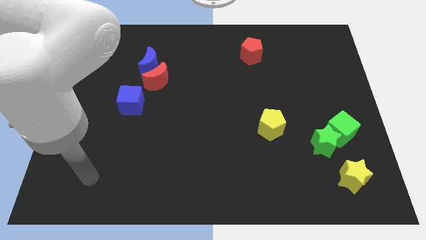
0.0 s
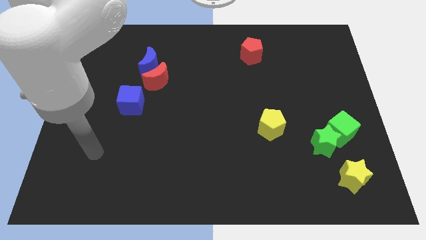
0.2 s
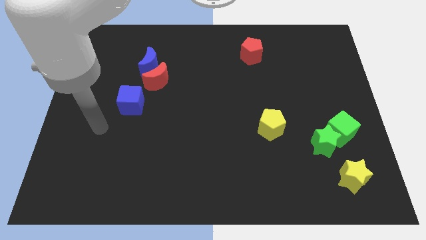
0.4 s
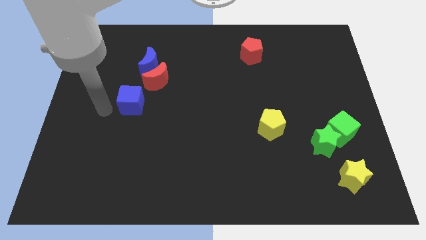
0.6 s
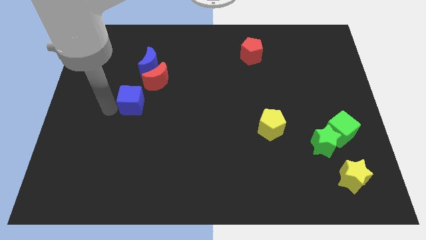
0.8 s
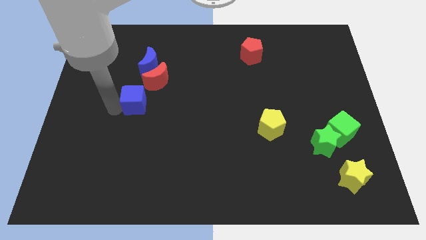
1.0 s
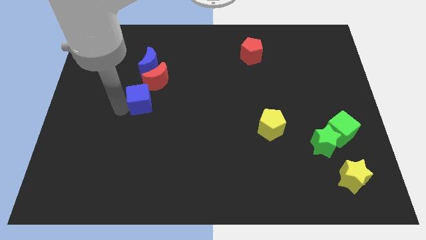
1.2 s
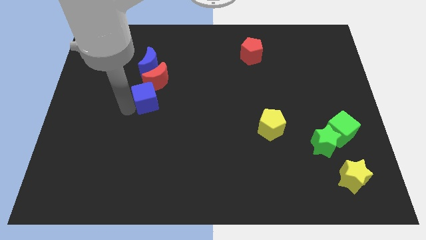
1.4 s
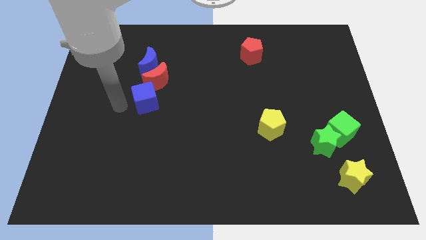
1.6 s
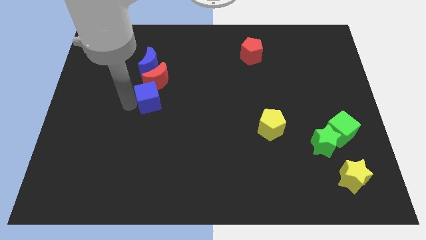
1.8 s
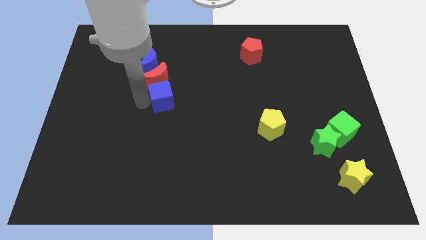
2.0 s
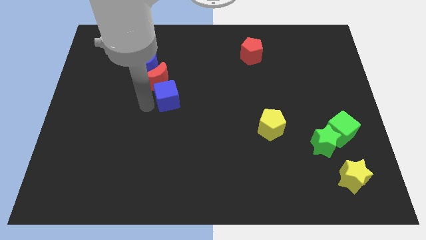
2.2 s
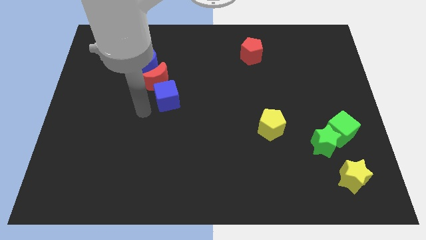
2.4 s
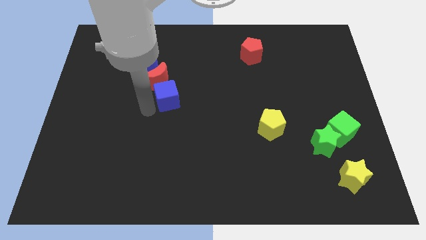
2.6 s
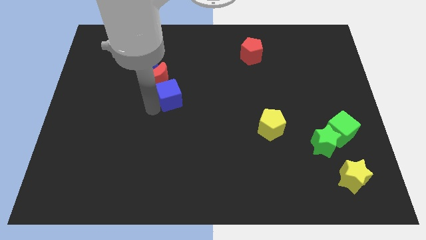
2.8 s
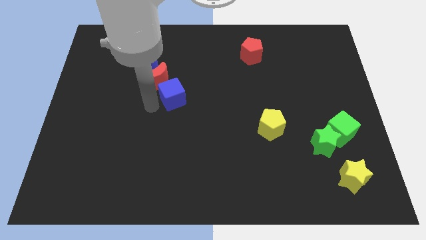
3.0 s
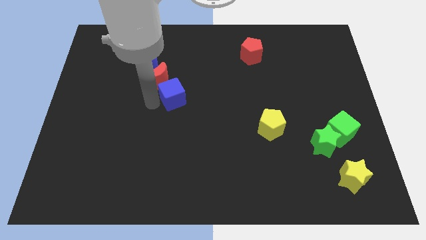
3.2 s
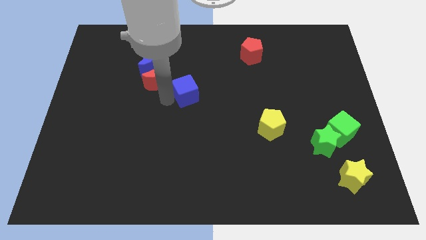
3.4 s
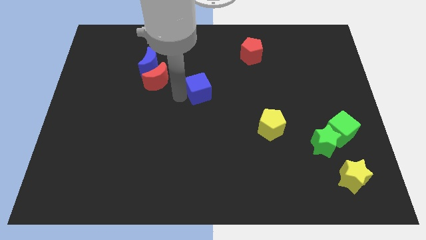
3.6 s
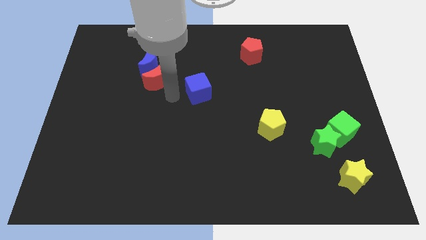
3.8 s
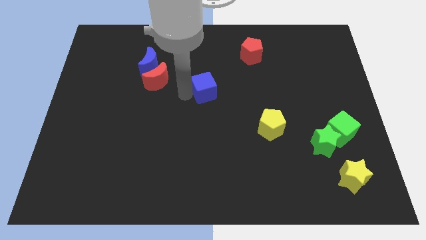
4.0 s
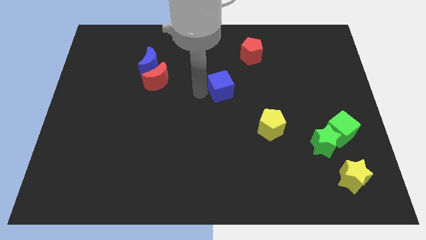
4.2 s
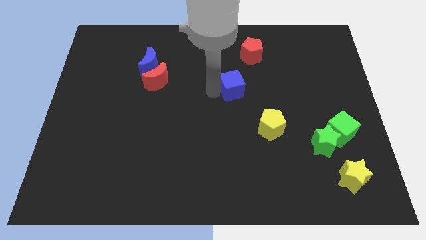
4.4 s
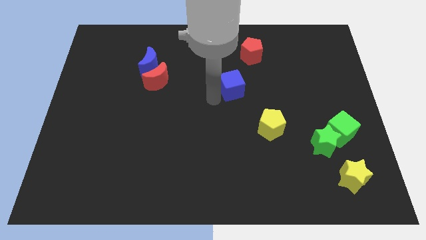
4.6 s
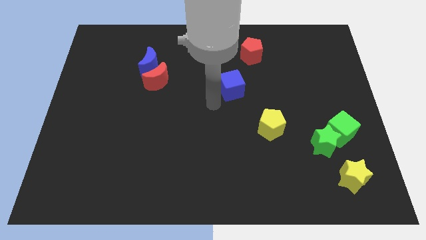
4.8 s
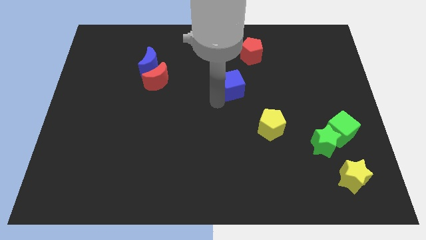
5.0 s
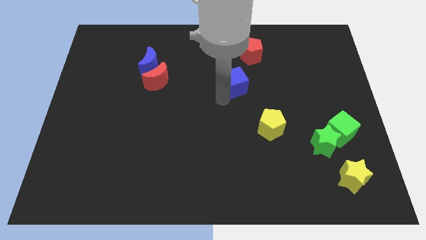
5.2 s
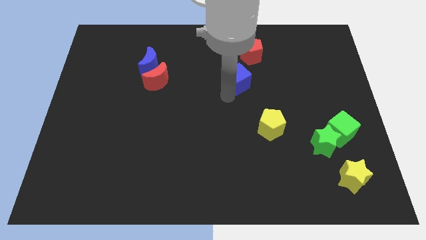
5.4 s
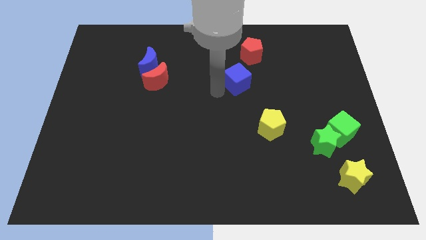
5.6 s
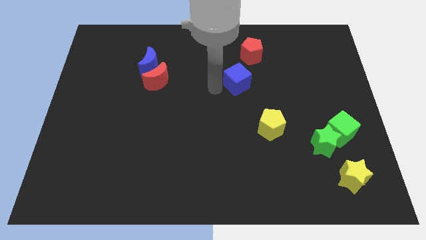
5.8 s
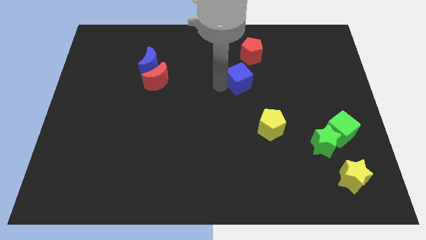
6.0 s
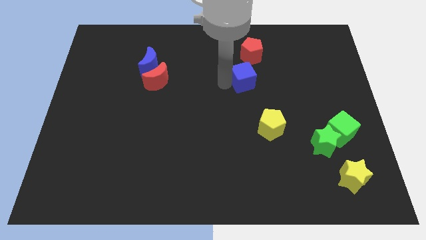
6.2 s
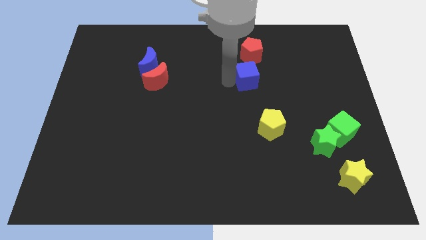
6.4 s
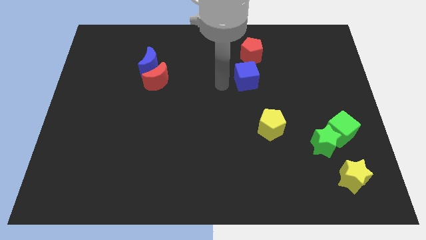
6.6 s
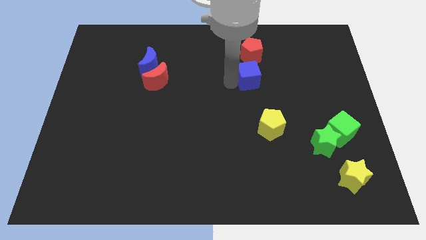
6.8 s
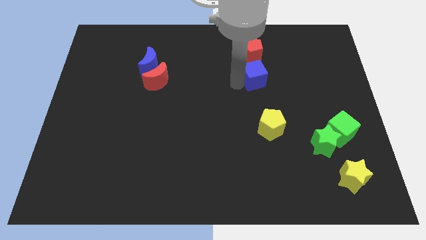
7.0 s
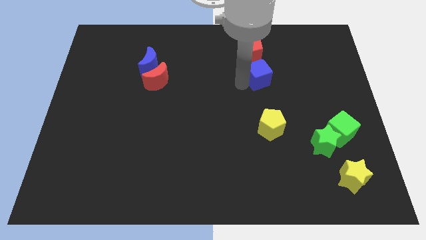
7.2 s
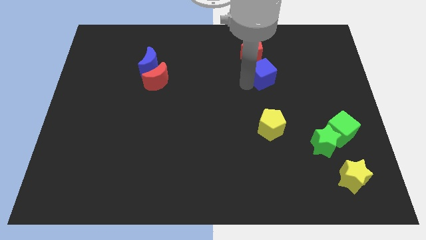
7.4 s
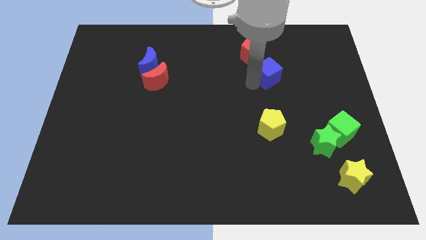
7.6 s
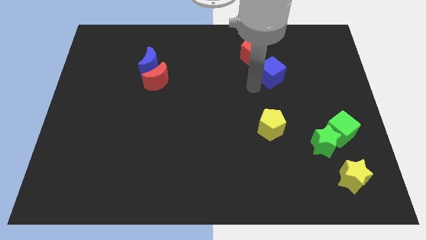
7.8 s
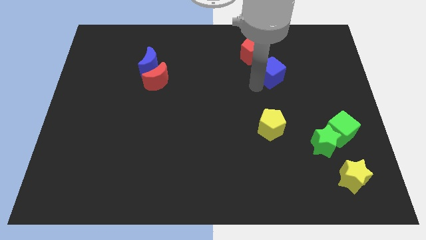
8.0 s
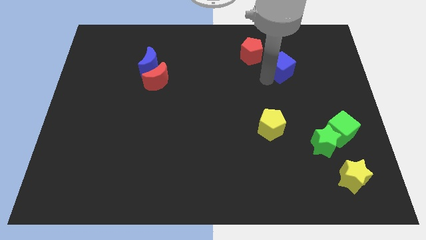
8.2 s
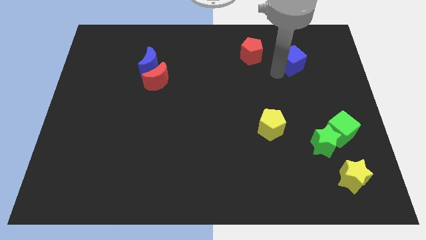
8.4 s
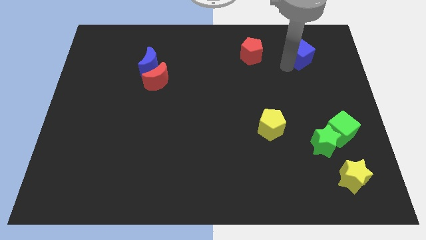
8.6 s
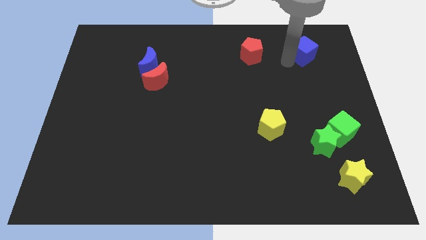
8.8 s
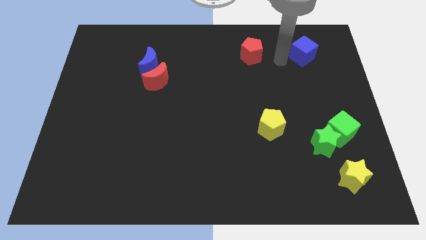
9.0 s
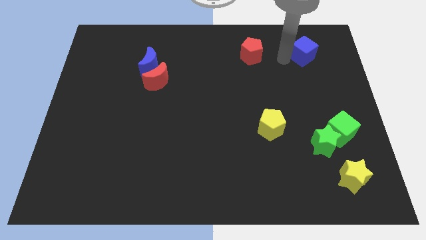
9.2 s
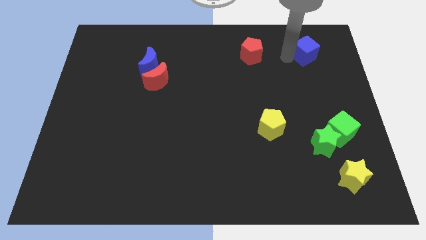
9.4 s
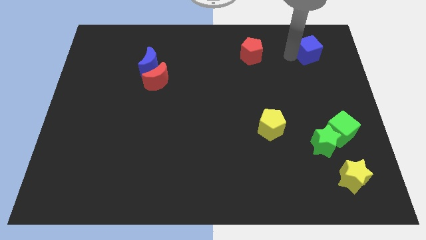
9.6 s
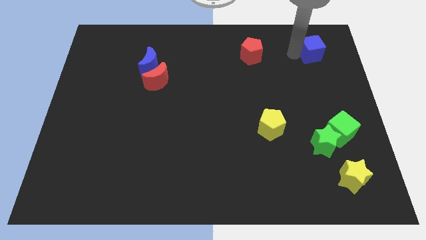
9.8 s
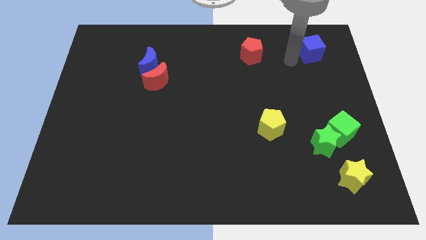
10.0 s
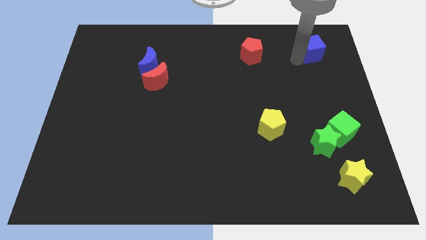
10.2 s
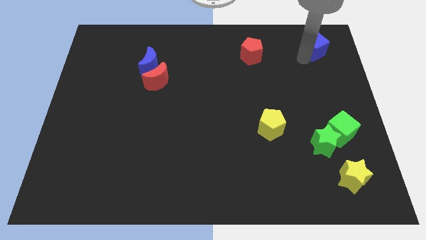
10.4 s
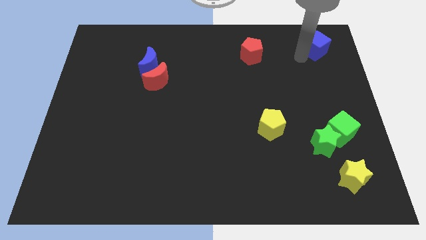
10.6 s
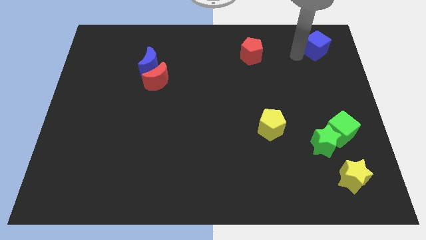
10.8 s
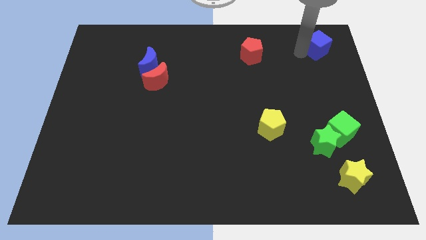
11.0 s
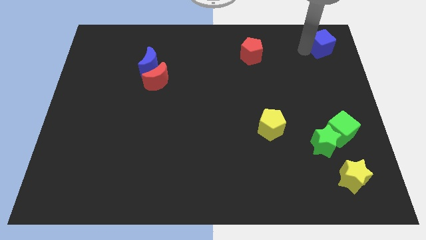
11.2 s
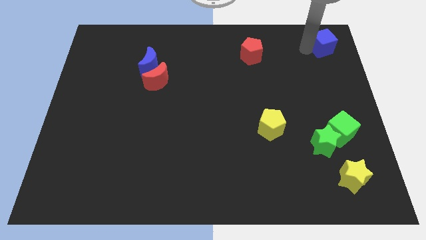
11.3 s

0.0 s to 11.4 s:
put the blue cube to the upper right corner

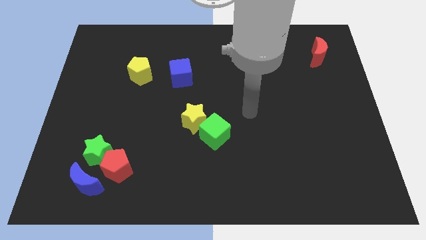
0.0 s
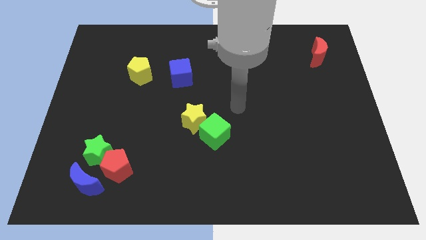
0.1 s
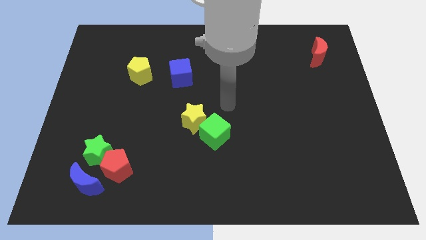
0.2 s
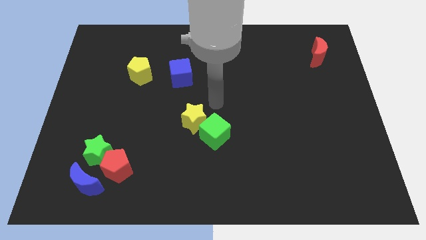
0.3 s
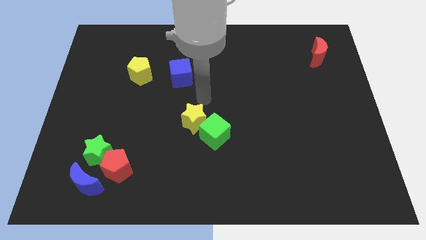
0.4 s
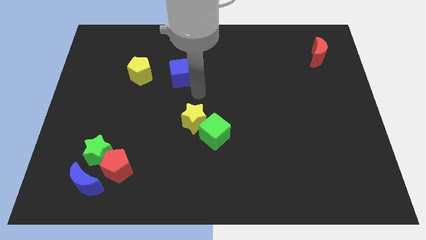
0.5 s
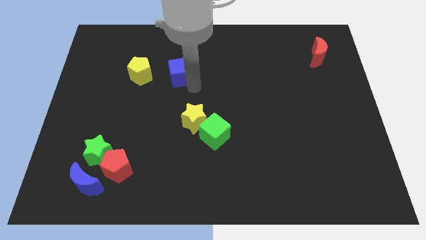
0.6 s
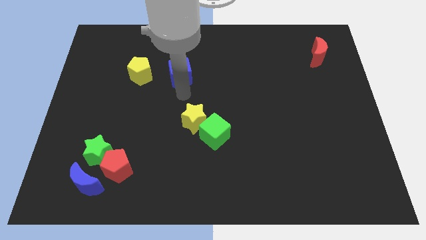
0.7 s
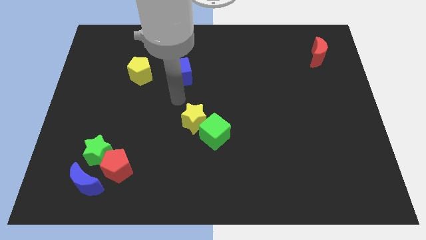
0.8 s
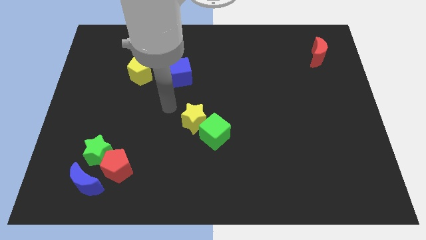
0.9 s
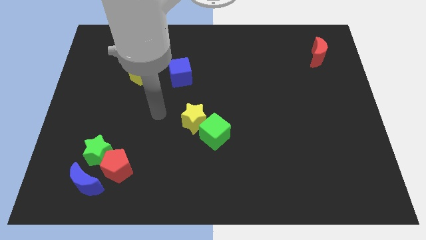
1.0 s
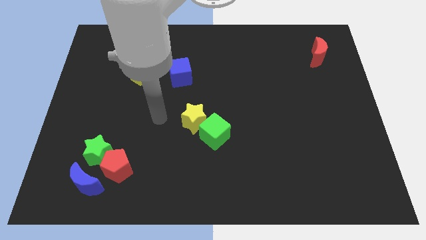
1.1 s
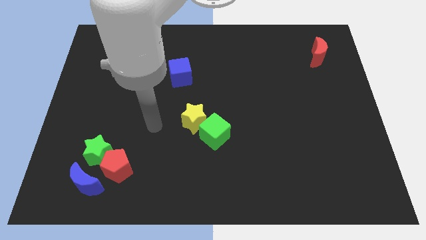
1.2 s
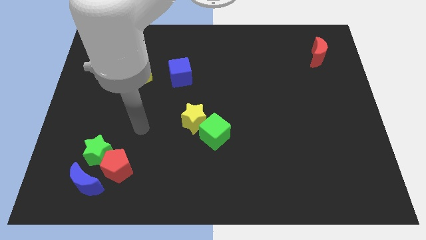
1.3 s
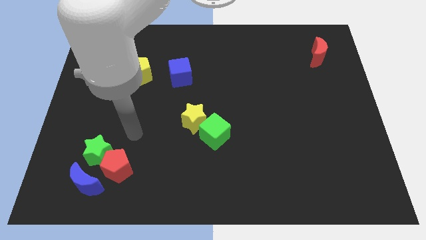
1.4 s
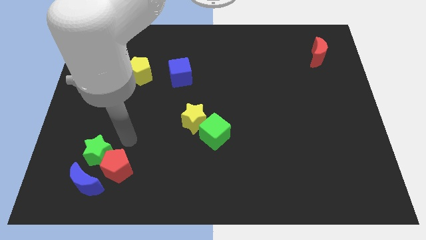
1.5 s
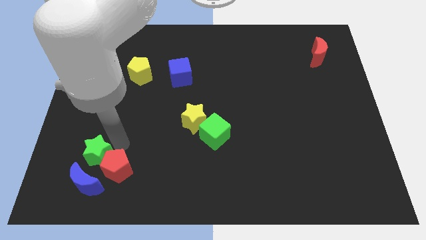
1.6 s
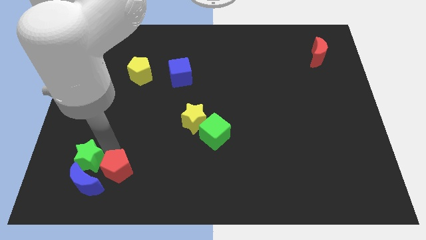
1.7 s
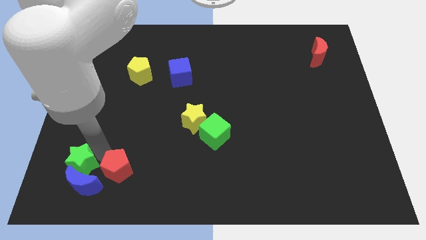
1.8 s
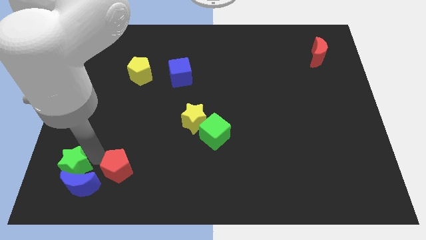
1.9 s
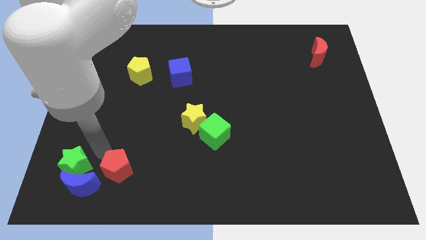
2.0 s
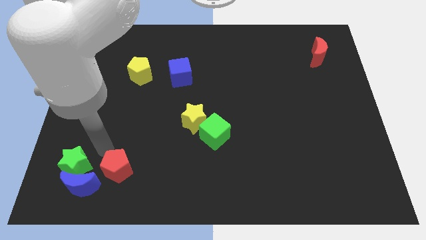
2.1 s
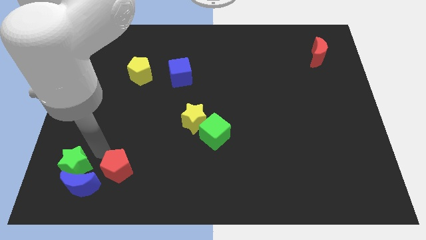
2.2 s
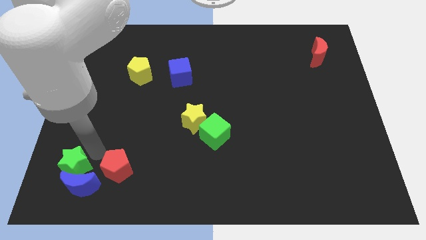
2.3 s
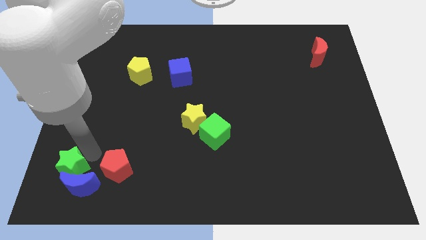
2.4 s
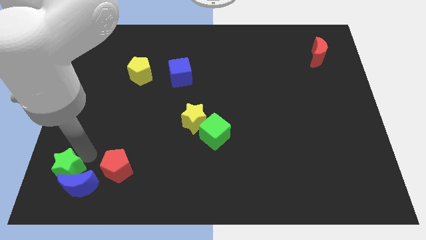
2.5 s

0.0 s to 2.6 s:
push the green star to the bottom left
